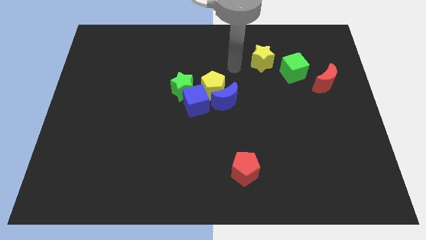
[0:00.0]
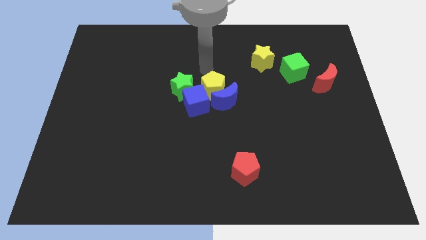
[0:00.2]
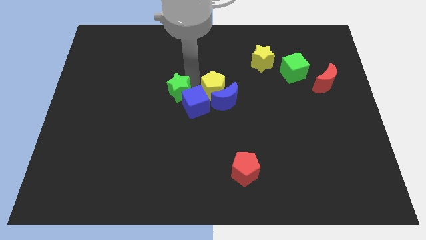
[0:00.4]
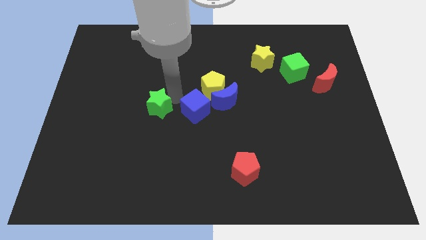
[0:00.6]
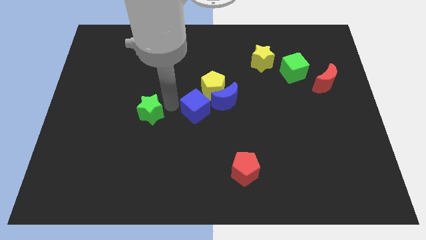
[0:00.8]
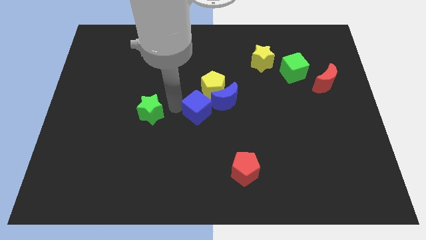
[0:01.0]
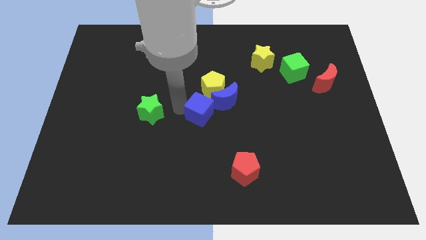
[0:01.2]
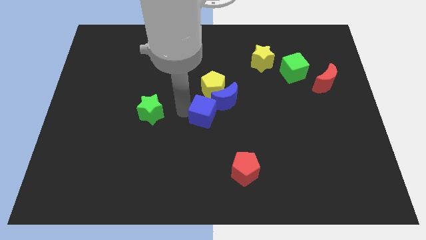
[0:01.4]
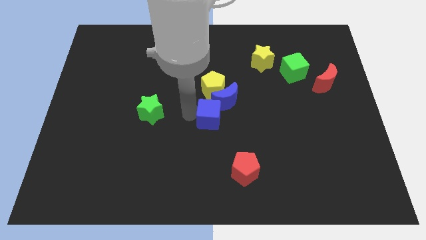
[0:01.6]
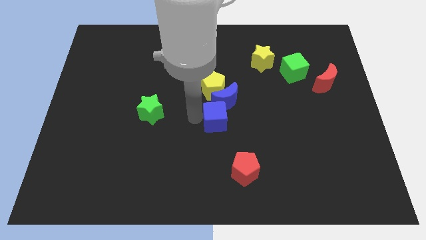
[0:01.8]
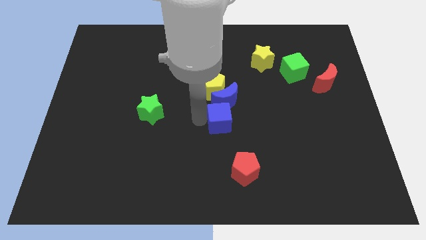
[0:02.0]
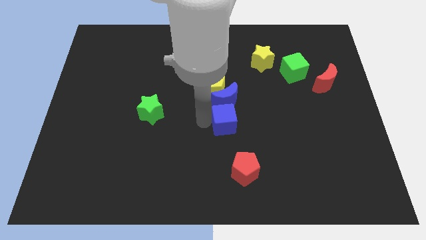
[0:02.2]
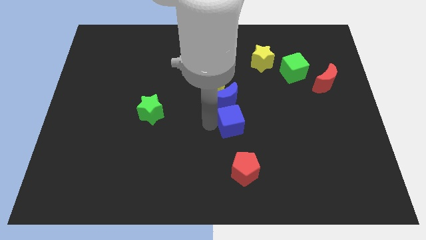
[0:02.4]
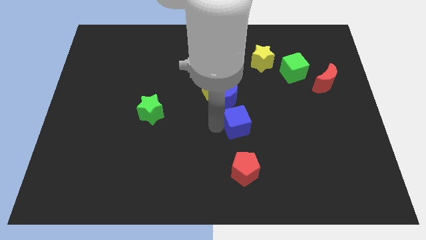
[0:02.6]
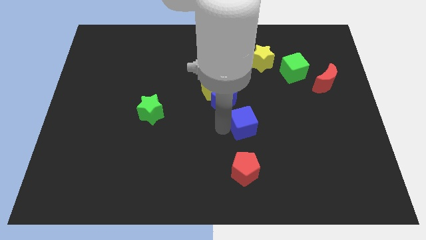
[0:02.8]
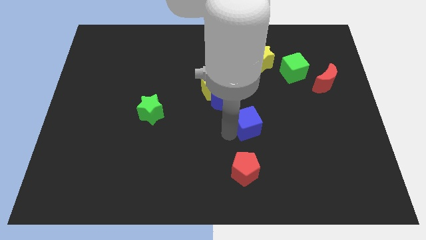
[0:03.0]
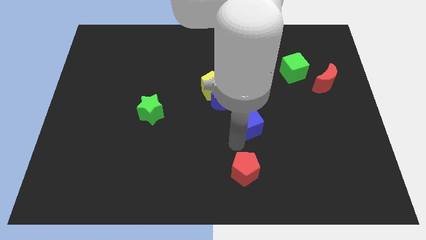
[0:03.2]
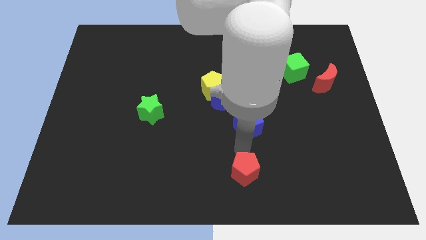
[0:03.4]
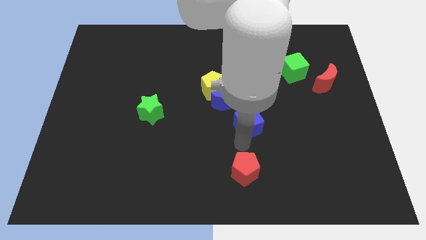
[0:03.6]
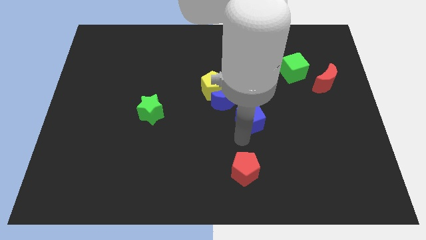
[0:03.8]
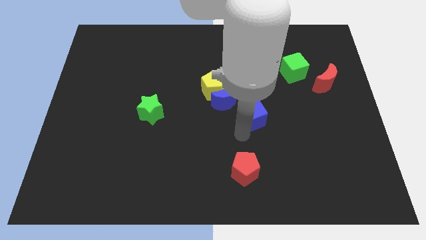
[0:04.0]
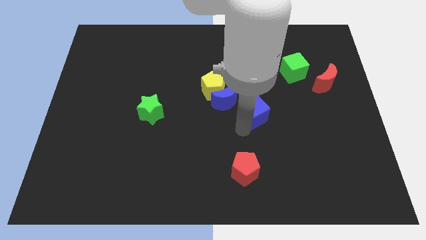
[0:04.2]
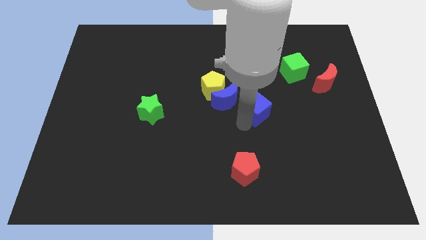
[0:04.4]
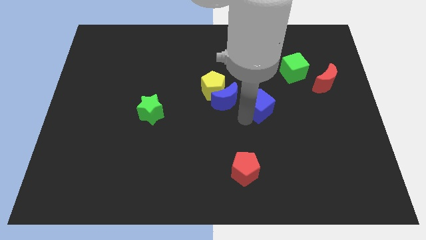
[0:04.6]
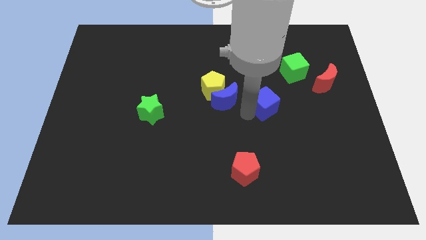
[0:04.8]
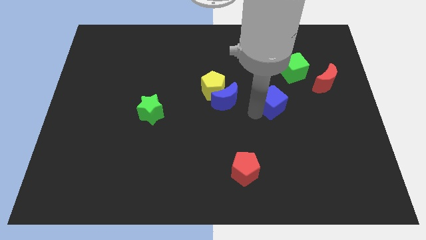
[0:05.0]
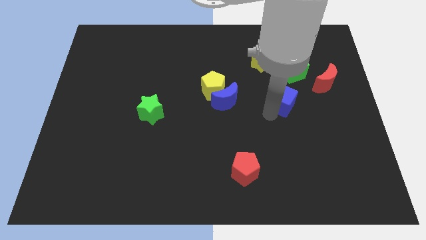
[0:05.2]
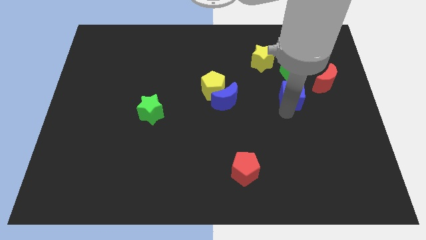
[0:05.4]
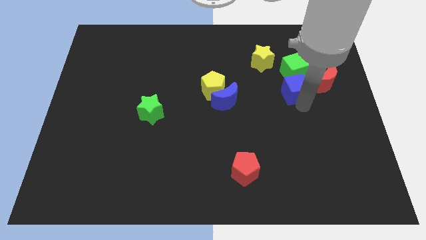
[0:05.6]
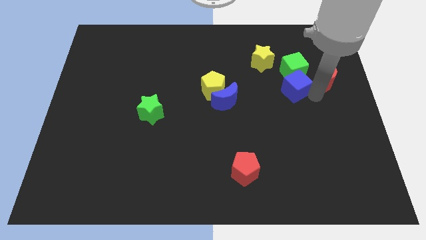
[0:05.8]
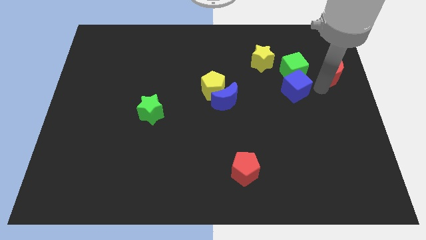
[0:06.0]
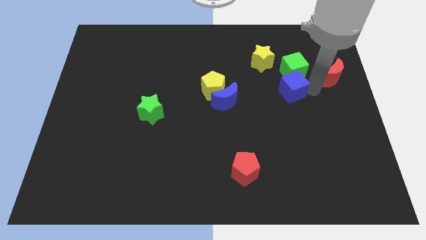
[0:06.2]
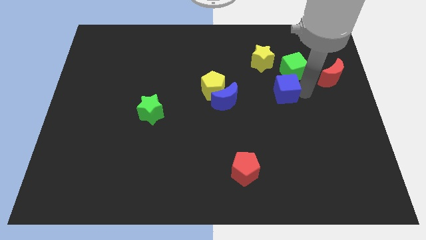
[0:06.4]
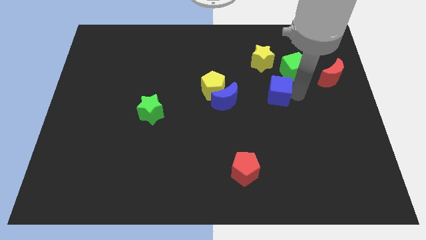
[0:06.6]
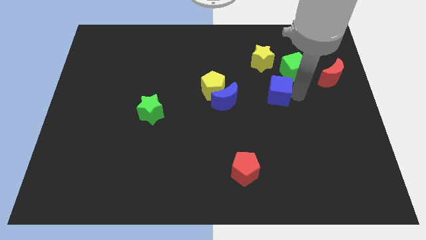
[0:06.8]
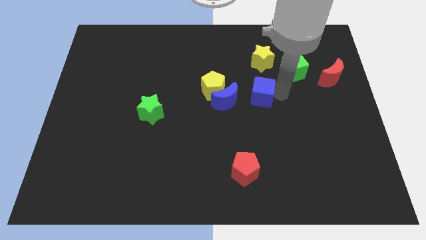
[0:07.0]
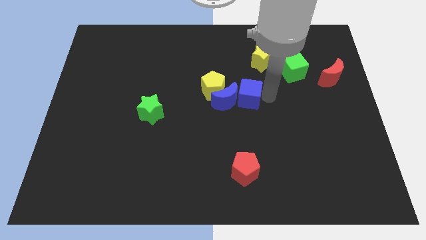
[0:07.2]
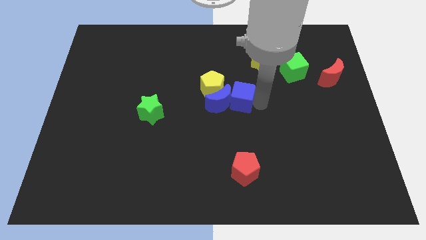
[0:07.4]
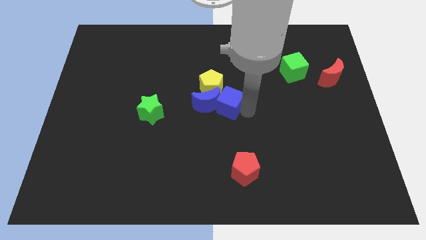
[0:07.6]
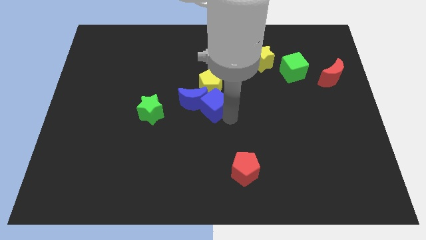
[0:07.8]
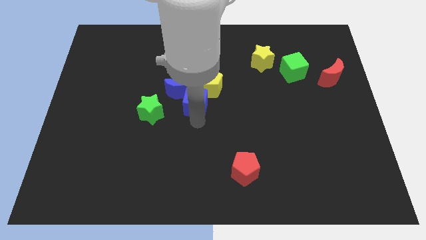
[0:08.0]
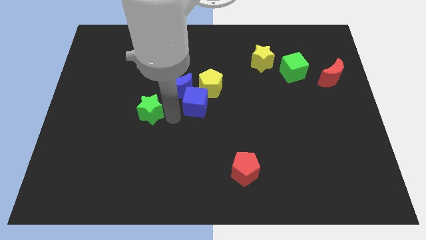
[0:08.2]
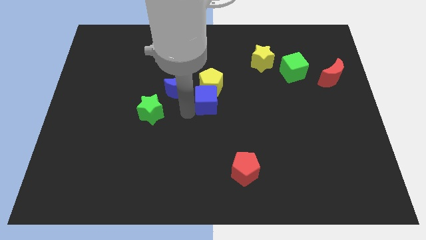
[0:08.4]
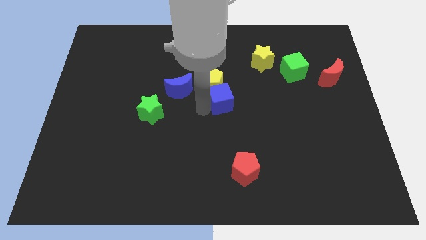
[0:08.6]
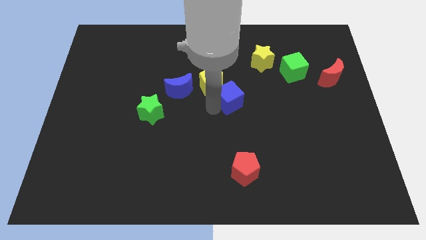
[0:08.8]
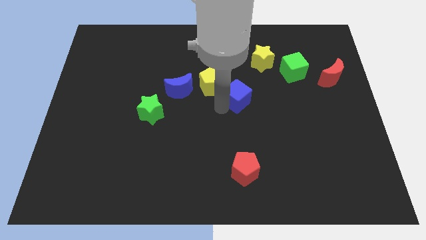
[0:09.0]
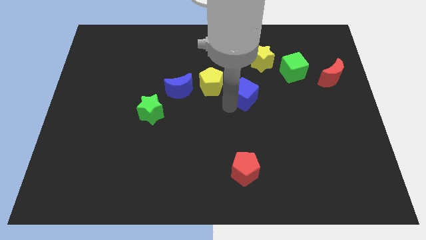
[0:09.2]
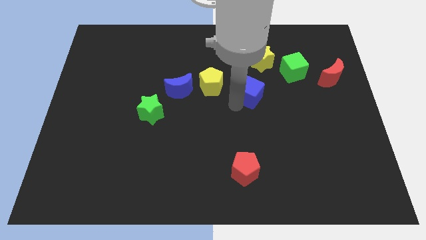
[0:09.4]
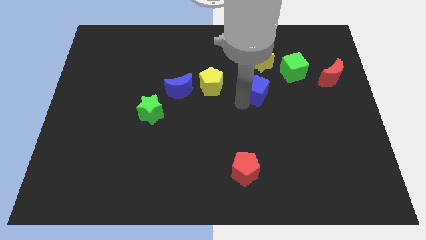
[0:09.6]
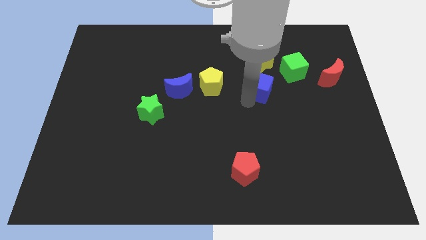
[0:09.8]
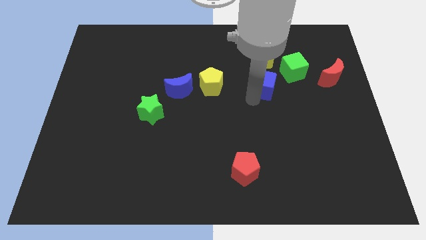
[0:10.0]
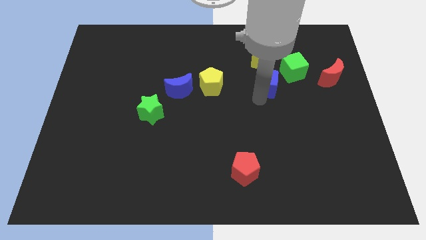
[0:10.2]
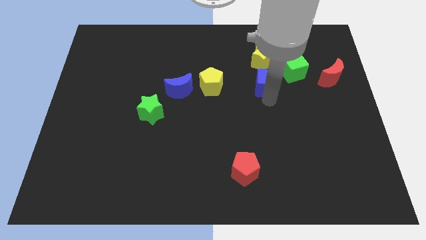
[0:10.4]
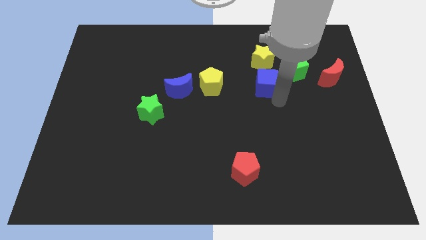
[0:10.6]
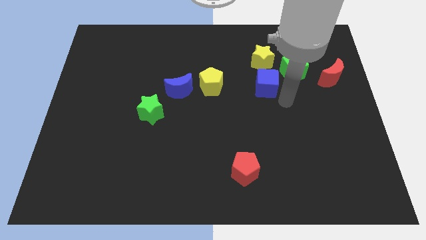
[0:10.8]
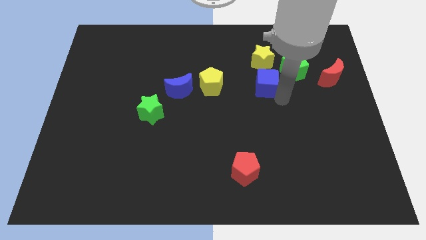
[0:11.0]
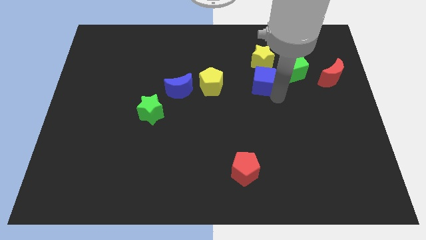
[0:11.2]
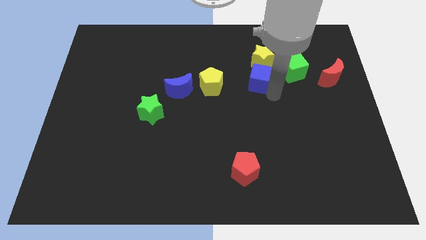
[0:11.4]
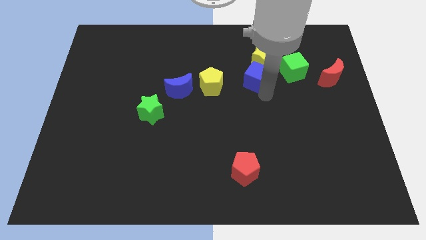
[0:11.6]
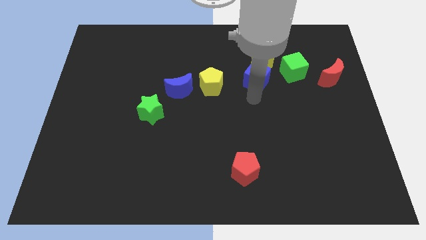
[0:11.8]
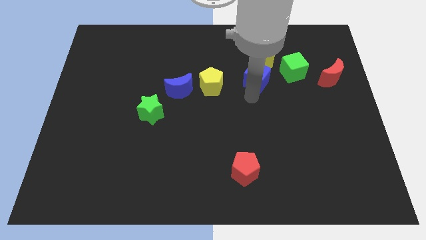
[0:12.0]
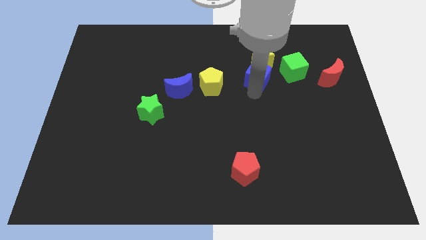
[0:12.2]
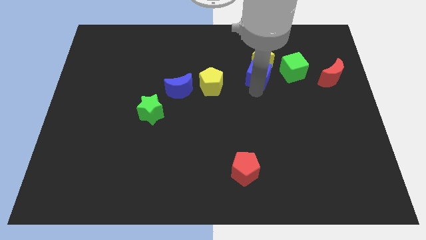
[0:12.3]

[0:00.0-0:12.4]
move the blue cube to the yellow star

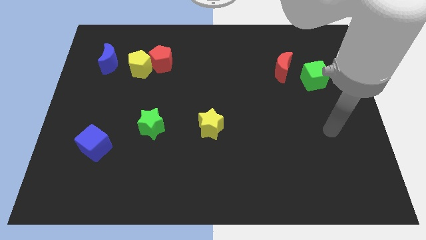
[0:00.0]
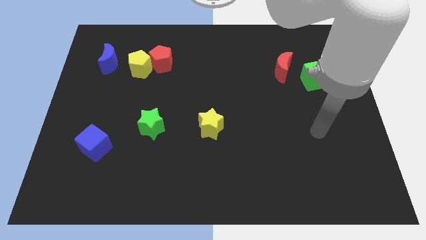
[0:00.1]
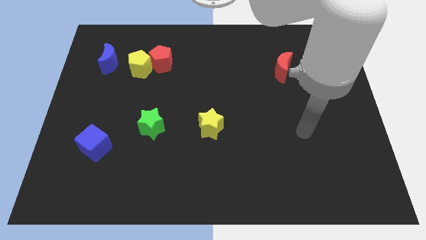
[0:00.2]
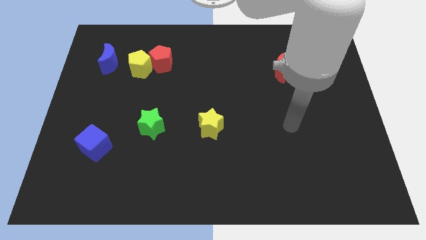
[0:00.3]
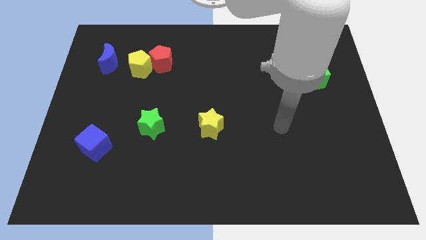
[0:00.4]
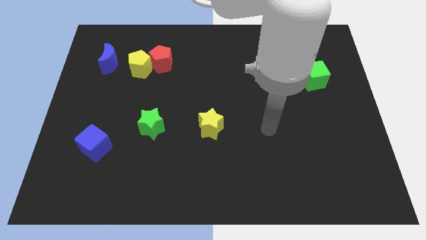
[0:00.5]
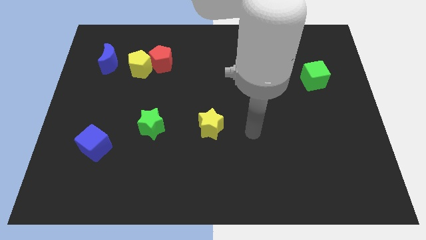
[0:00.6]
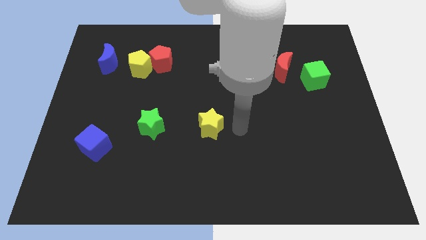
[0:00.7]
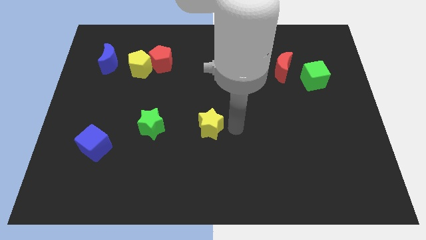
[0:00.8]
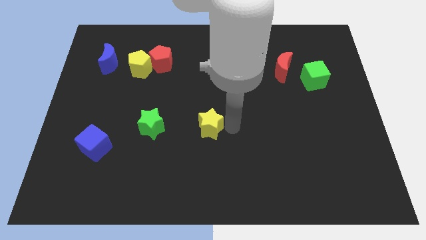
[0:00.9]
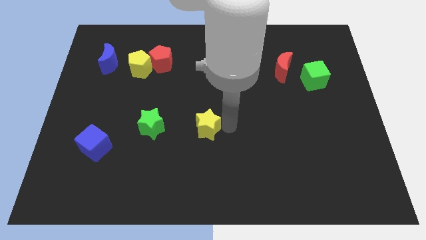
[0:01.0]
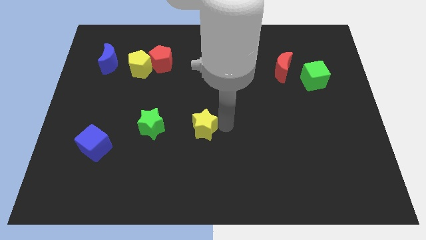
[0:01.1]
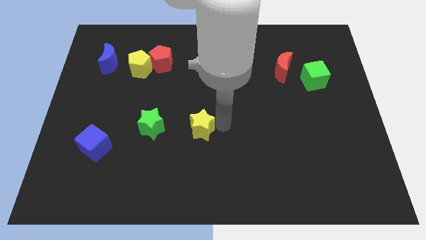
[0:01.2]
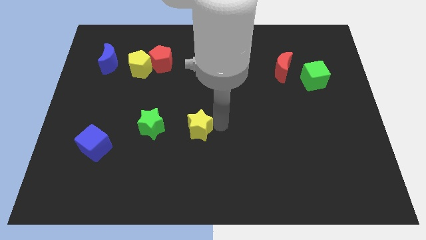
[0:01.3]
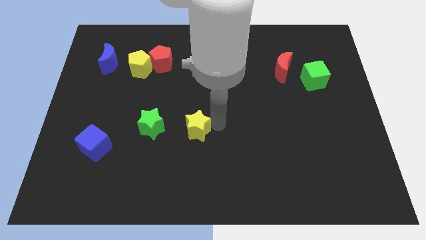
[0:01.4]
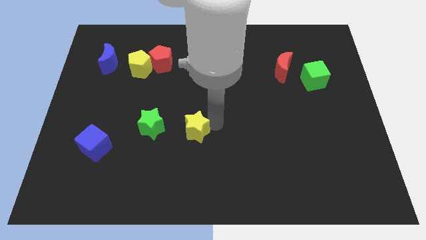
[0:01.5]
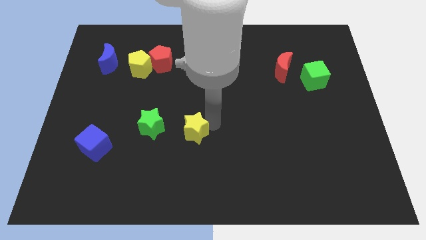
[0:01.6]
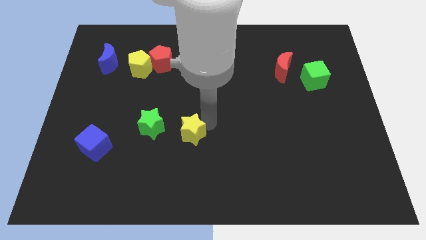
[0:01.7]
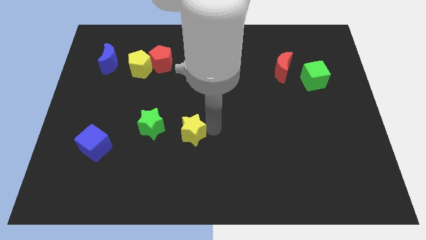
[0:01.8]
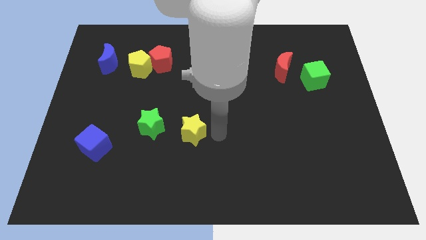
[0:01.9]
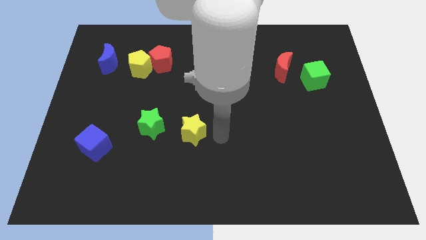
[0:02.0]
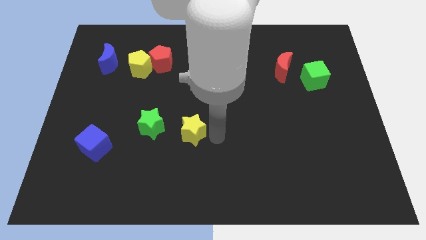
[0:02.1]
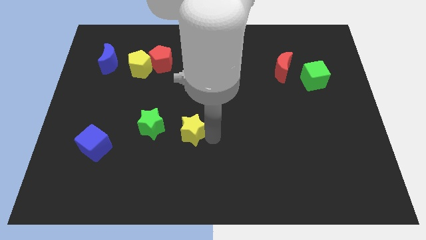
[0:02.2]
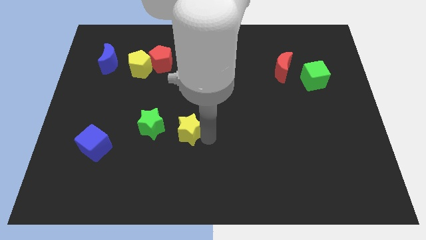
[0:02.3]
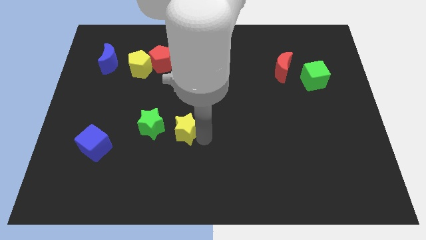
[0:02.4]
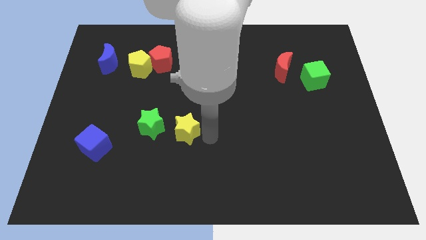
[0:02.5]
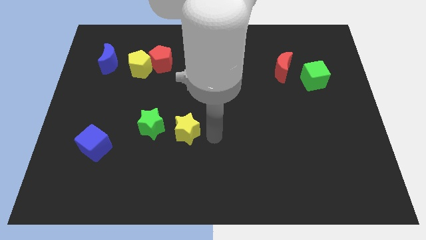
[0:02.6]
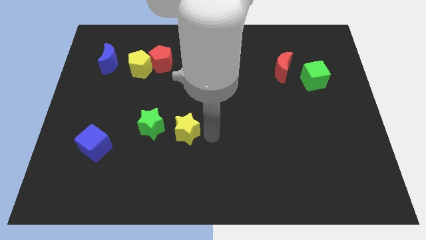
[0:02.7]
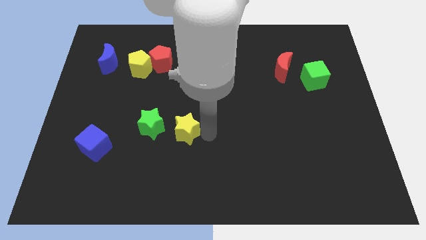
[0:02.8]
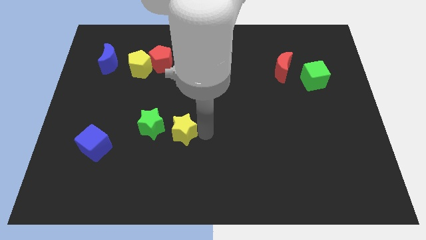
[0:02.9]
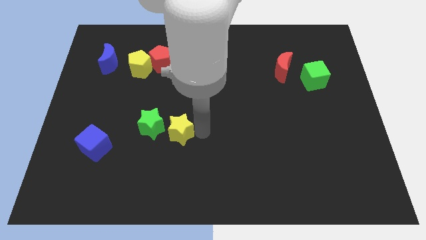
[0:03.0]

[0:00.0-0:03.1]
push the yellow star close to the green star
